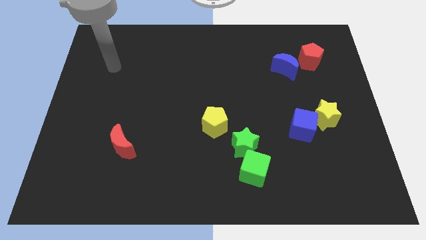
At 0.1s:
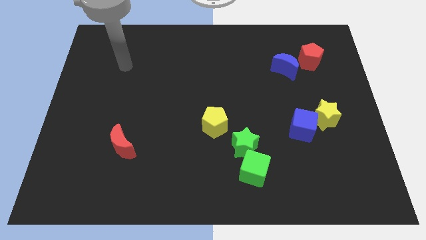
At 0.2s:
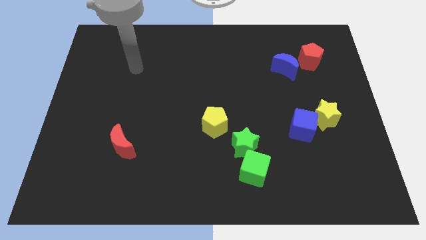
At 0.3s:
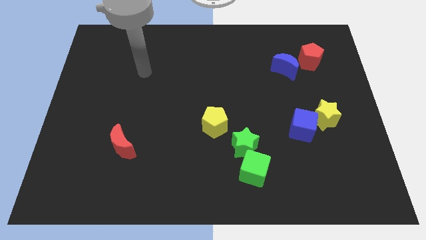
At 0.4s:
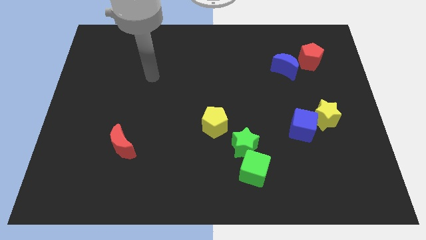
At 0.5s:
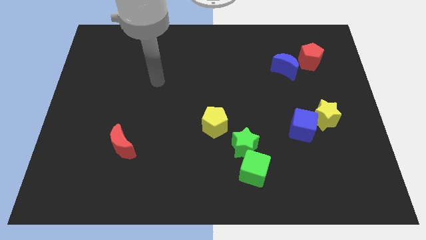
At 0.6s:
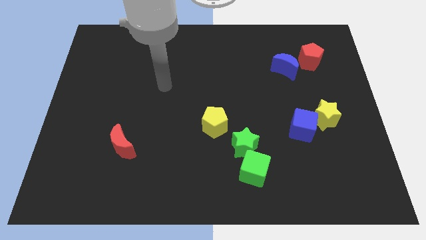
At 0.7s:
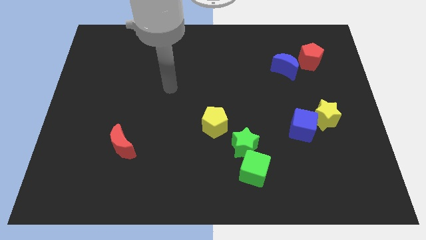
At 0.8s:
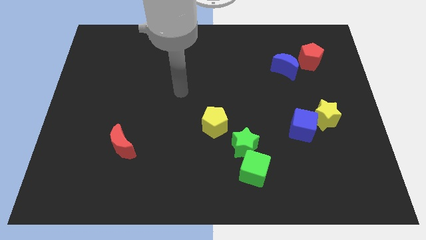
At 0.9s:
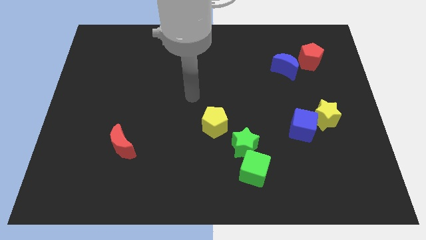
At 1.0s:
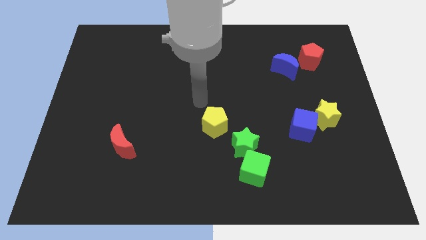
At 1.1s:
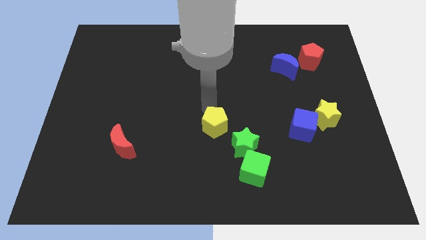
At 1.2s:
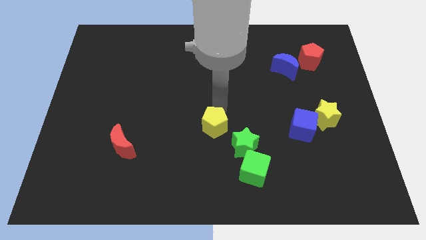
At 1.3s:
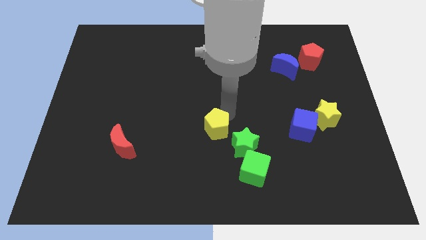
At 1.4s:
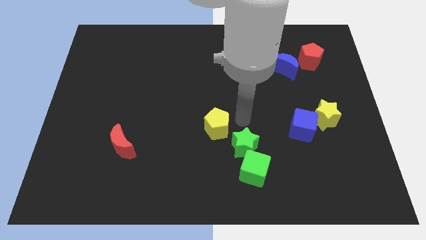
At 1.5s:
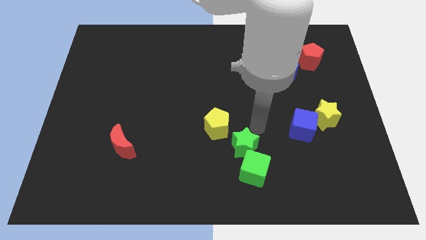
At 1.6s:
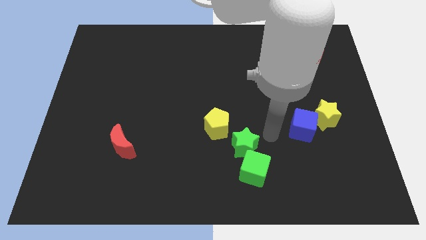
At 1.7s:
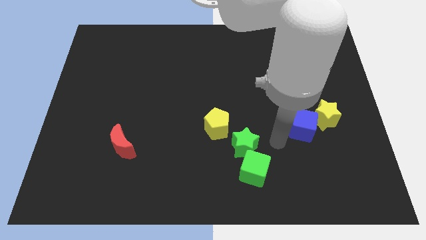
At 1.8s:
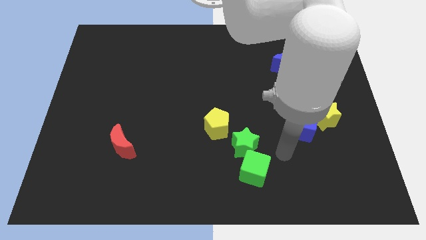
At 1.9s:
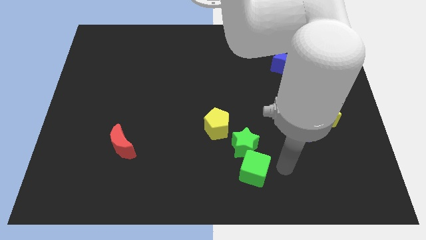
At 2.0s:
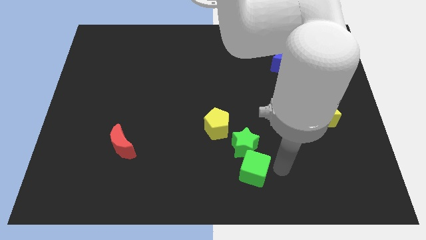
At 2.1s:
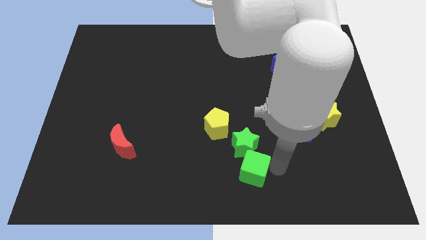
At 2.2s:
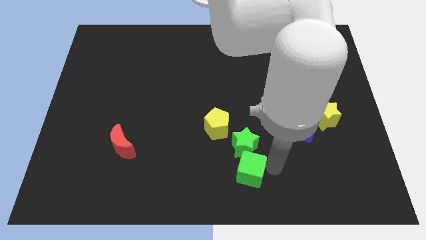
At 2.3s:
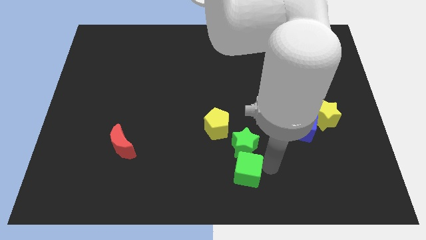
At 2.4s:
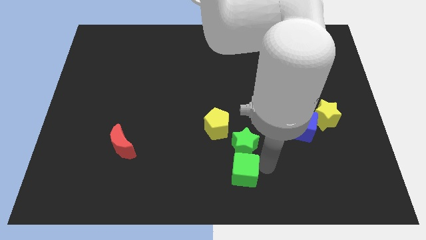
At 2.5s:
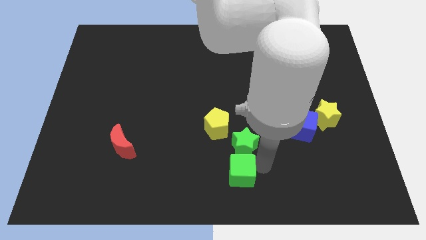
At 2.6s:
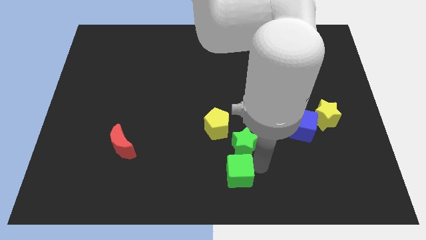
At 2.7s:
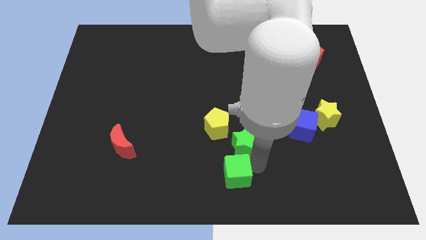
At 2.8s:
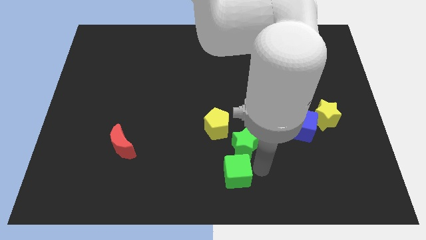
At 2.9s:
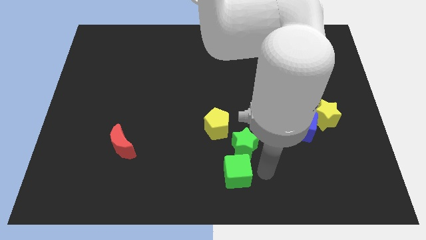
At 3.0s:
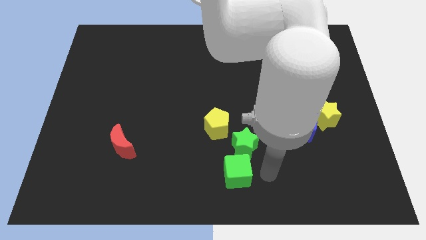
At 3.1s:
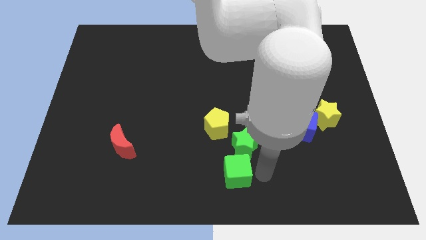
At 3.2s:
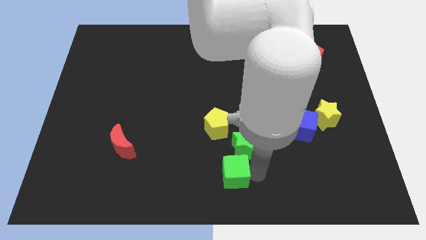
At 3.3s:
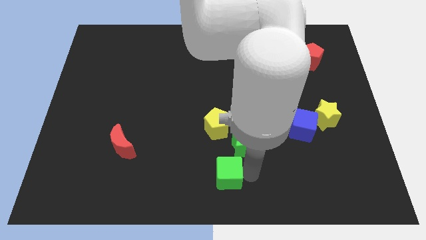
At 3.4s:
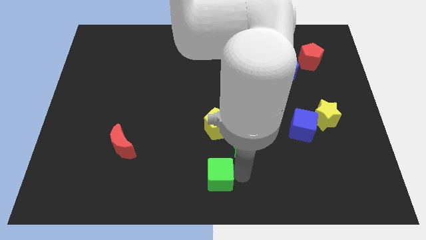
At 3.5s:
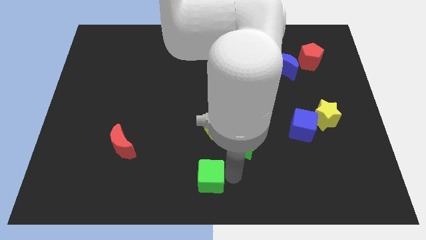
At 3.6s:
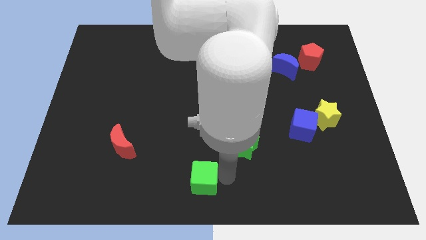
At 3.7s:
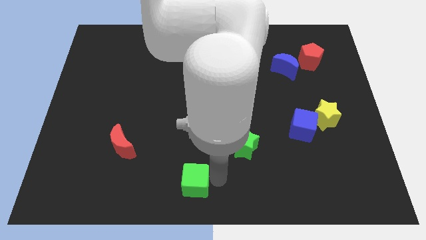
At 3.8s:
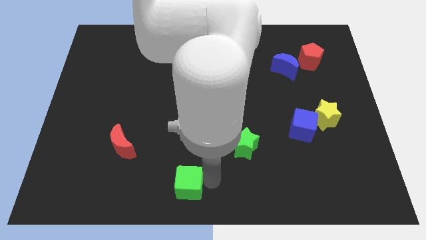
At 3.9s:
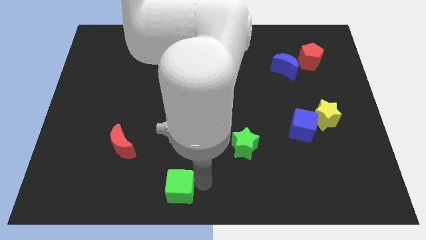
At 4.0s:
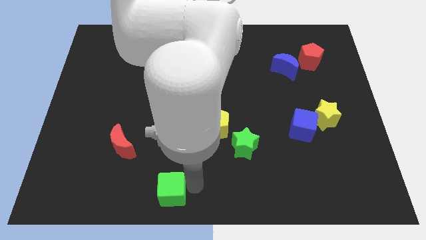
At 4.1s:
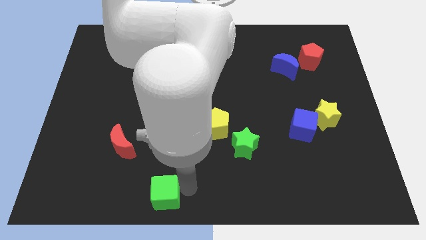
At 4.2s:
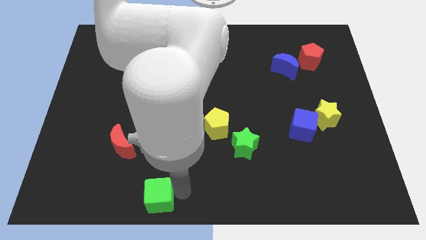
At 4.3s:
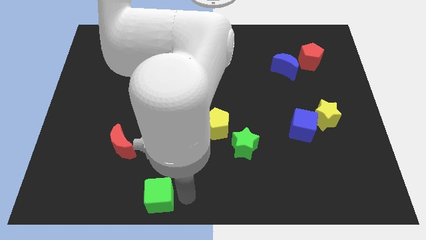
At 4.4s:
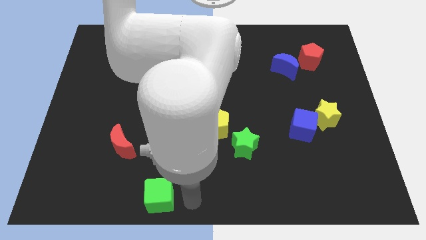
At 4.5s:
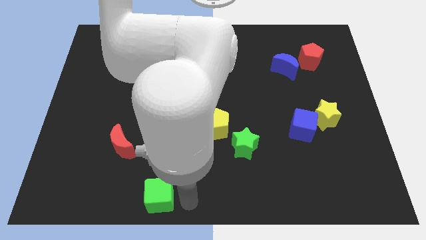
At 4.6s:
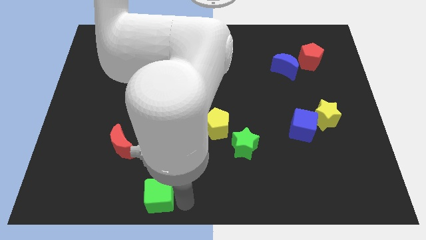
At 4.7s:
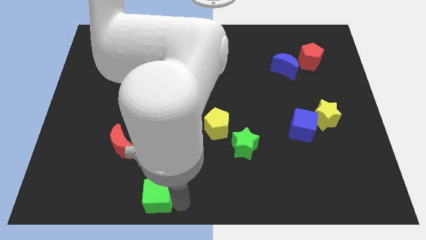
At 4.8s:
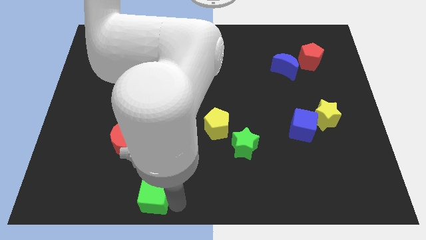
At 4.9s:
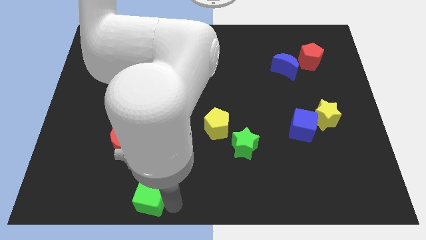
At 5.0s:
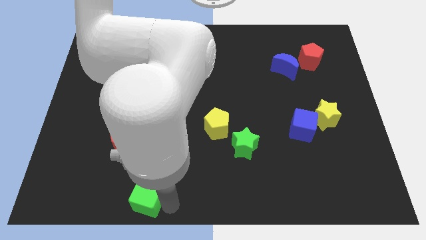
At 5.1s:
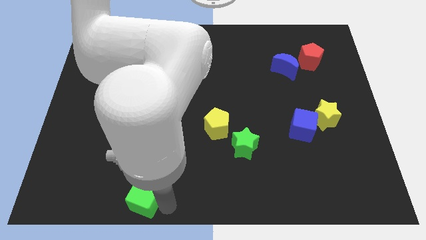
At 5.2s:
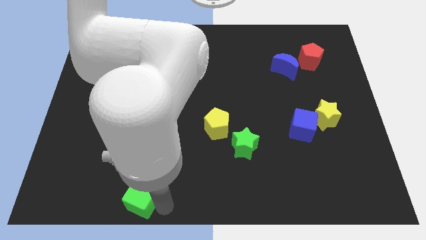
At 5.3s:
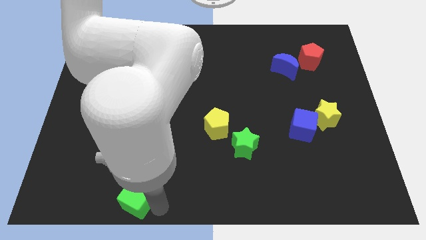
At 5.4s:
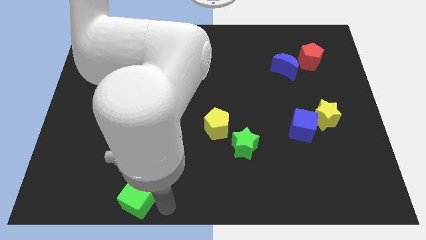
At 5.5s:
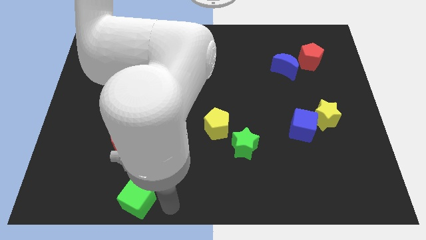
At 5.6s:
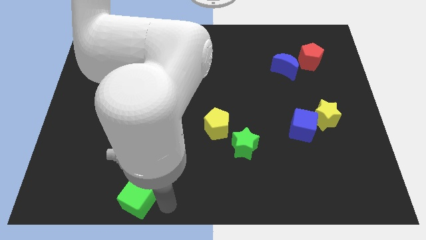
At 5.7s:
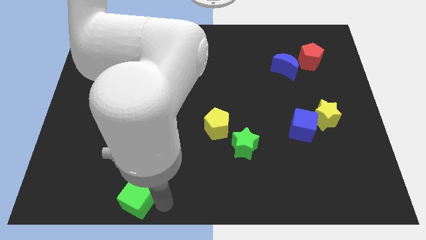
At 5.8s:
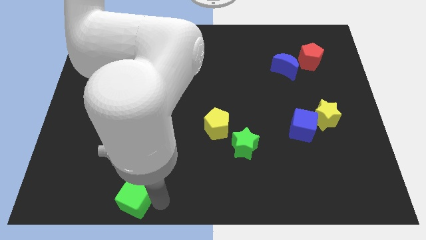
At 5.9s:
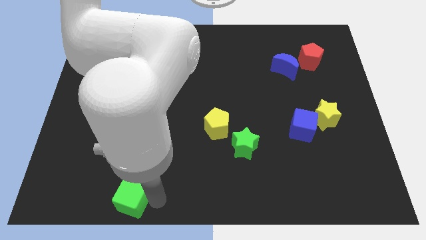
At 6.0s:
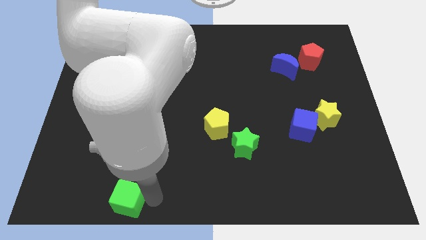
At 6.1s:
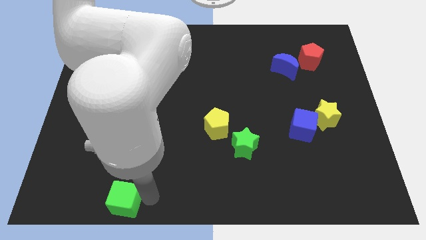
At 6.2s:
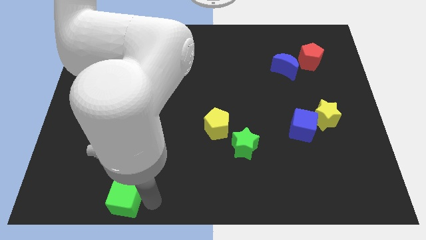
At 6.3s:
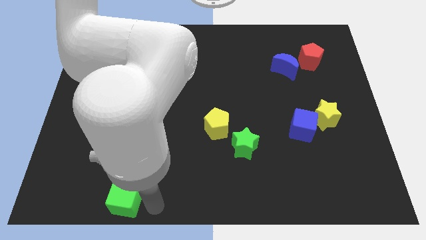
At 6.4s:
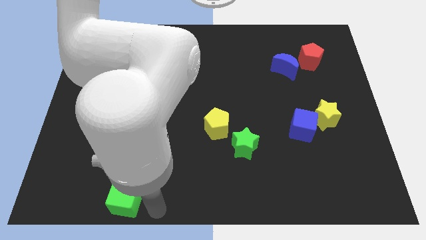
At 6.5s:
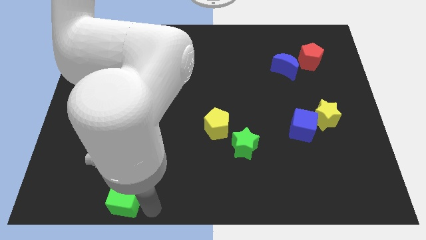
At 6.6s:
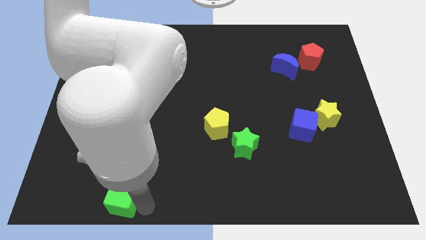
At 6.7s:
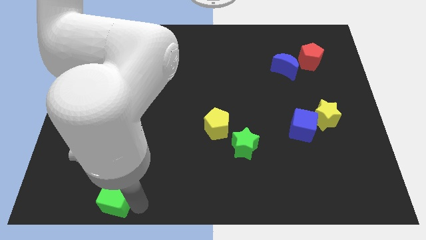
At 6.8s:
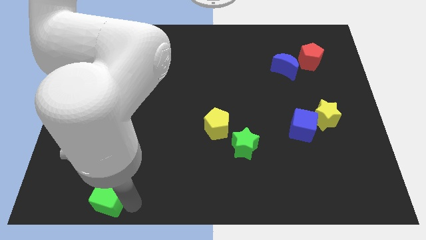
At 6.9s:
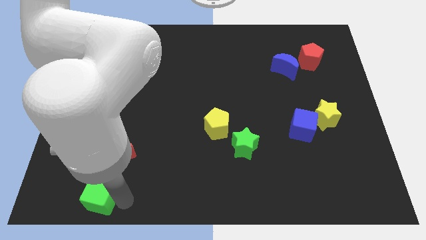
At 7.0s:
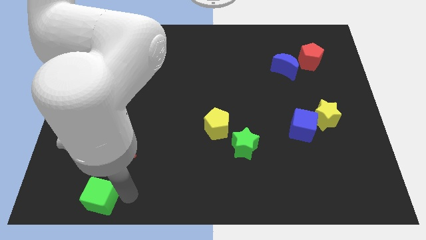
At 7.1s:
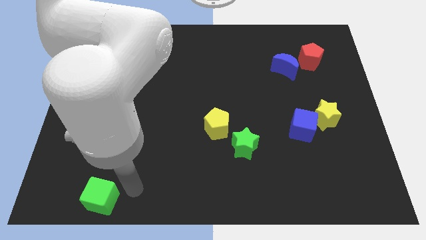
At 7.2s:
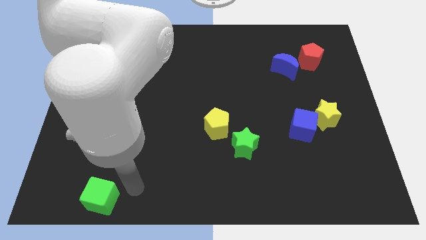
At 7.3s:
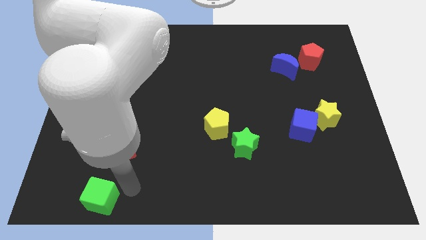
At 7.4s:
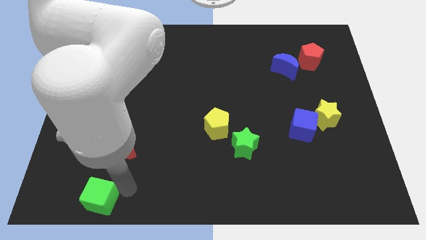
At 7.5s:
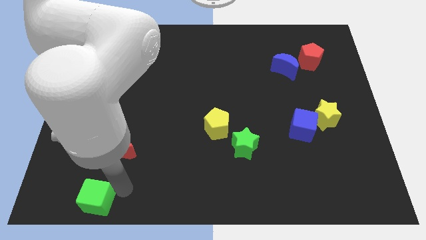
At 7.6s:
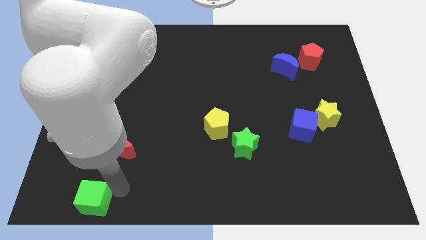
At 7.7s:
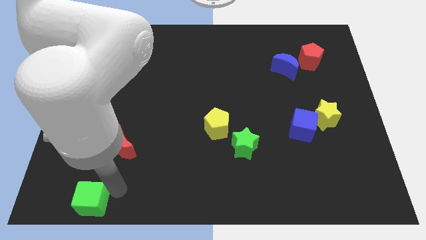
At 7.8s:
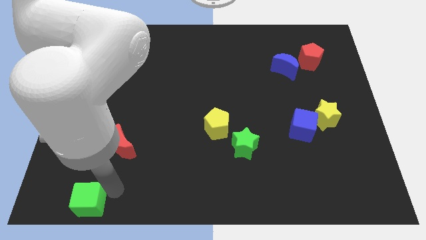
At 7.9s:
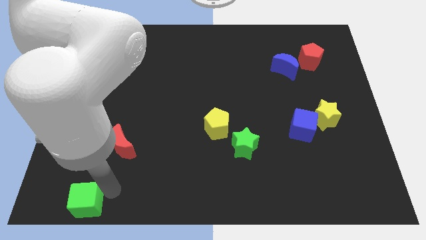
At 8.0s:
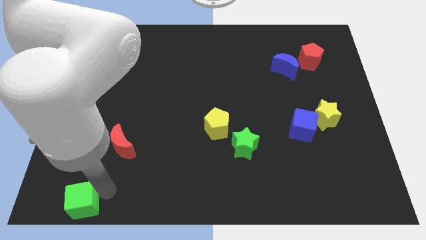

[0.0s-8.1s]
push the green cube to the bottom left
